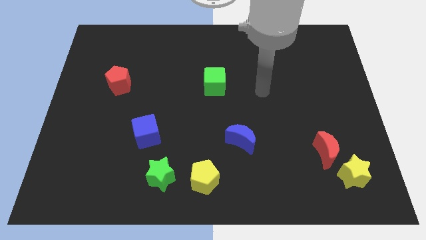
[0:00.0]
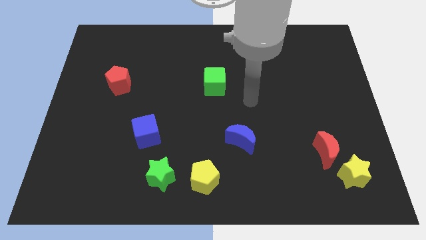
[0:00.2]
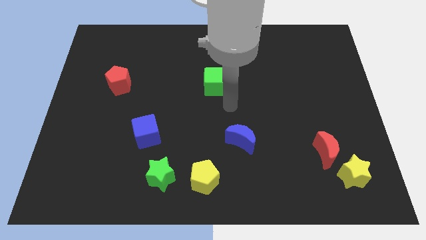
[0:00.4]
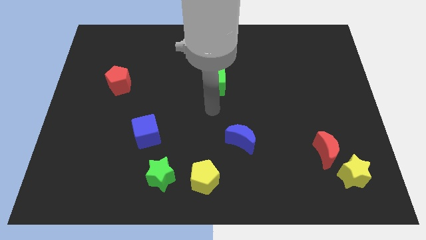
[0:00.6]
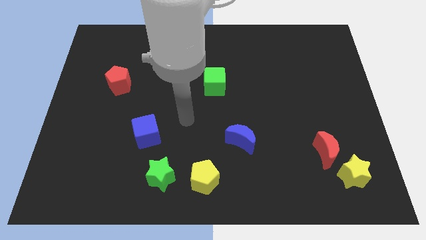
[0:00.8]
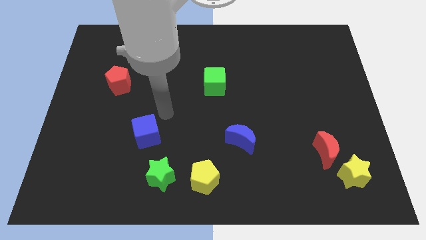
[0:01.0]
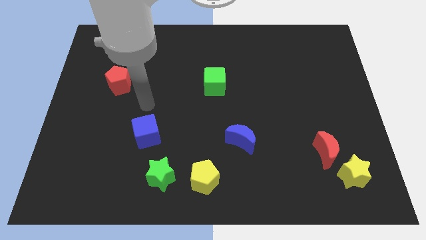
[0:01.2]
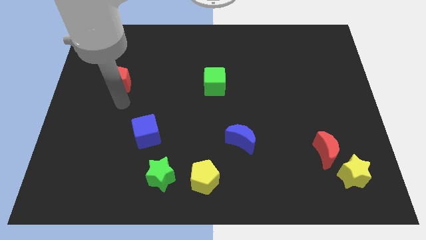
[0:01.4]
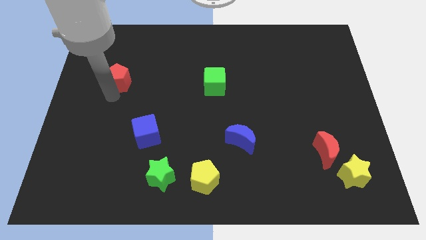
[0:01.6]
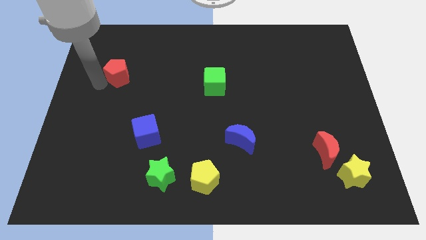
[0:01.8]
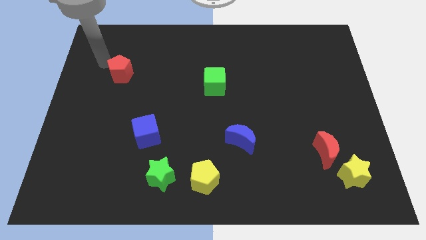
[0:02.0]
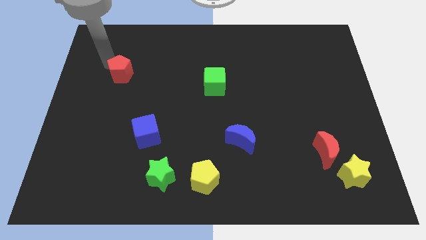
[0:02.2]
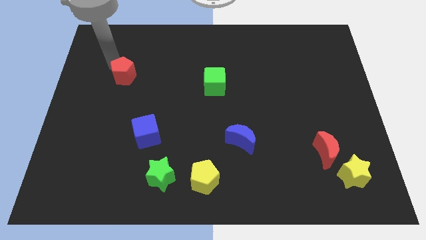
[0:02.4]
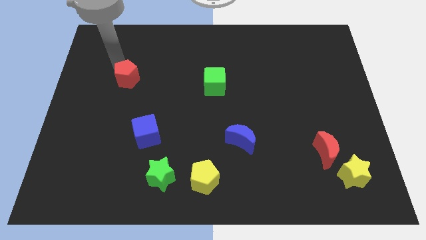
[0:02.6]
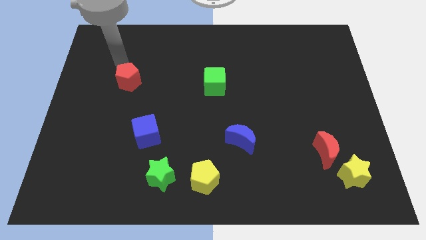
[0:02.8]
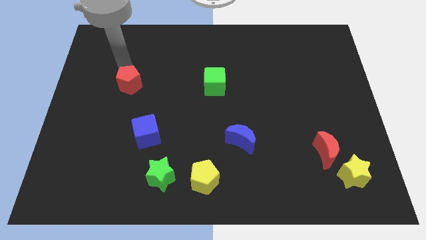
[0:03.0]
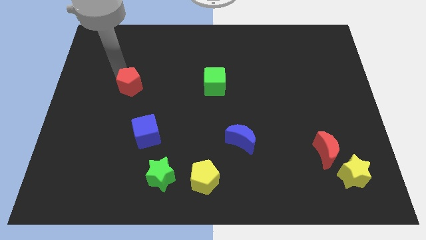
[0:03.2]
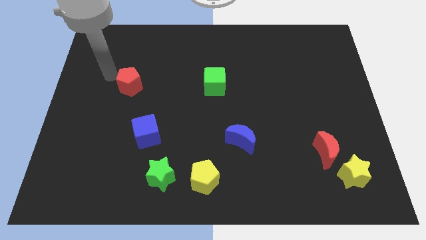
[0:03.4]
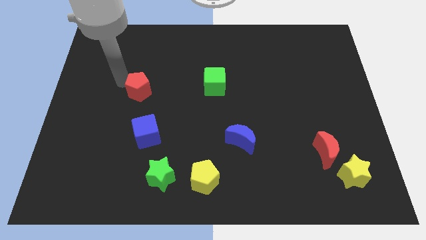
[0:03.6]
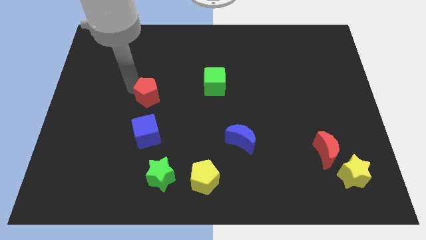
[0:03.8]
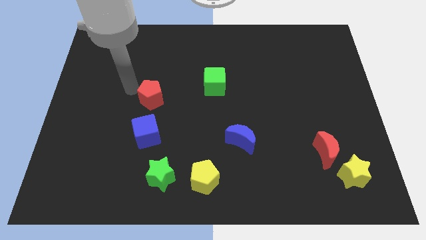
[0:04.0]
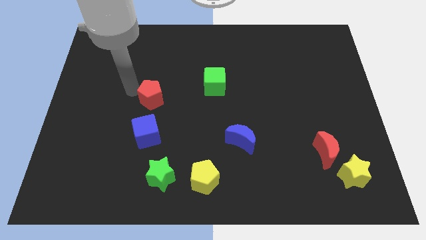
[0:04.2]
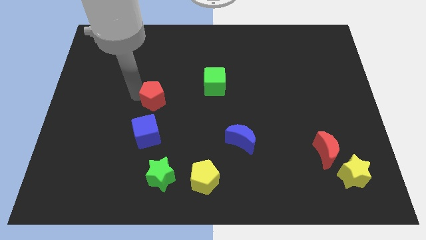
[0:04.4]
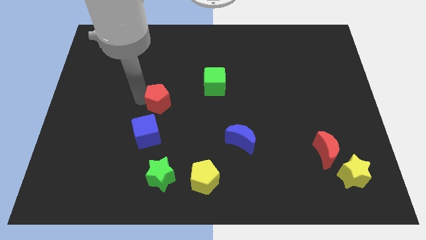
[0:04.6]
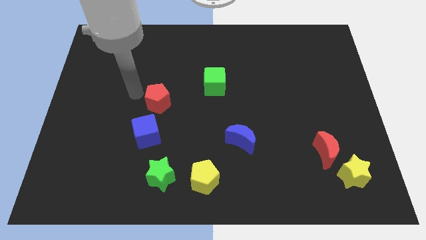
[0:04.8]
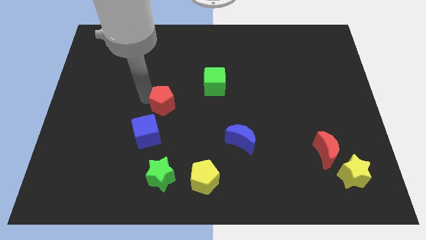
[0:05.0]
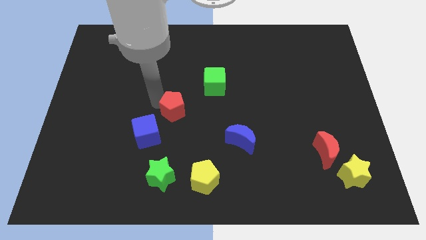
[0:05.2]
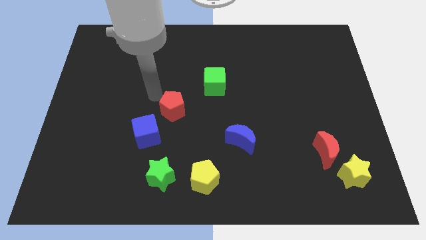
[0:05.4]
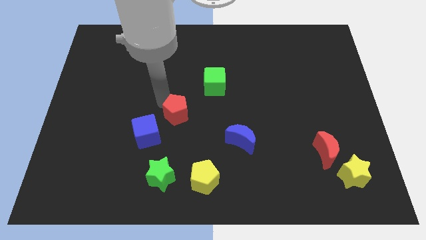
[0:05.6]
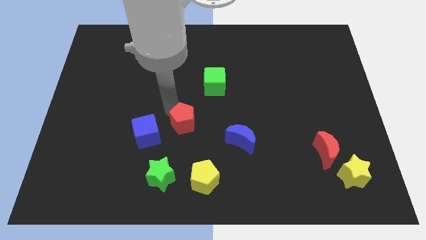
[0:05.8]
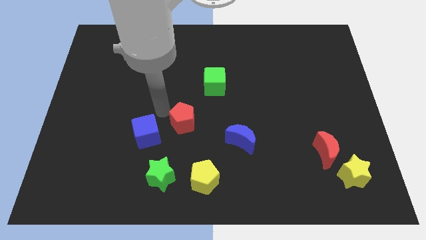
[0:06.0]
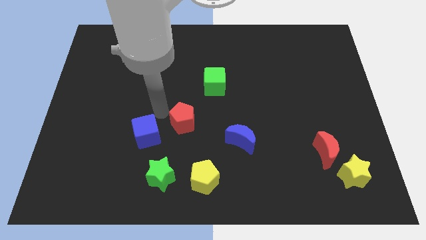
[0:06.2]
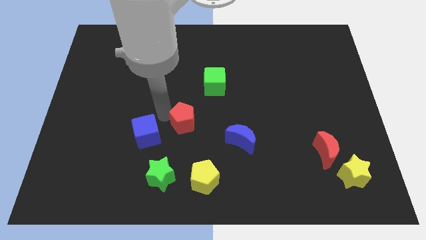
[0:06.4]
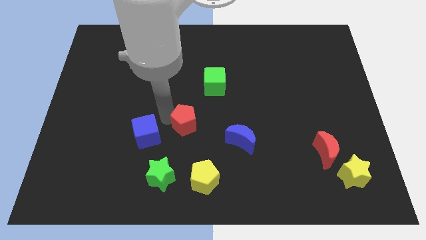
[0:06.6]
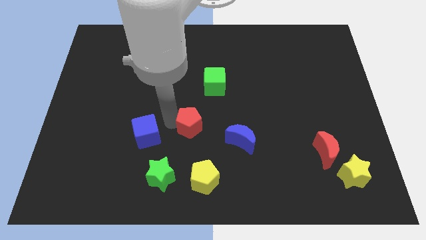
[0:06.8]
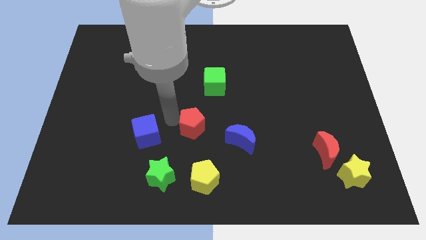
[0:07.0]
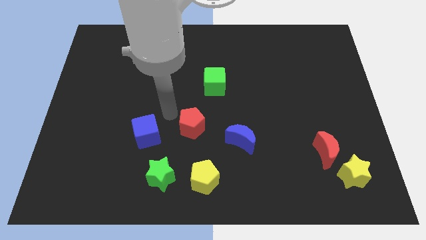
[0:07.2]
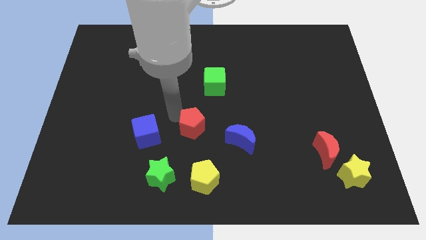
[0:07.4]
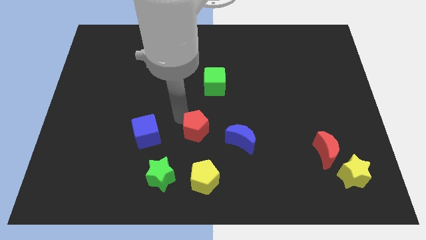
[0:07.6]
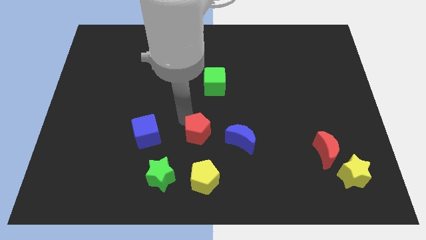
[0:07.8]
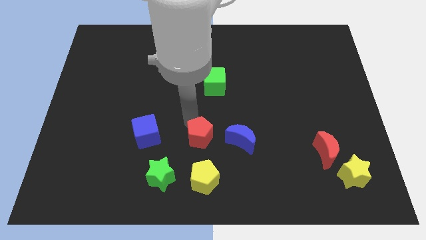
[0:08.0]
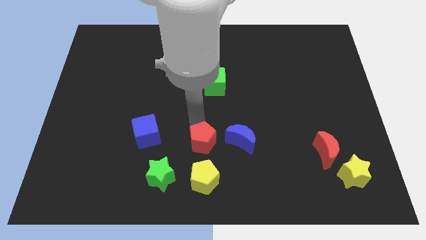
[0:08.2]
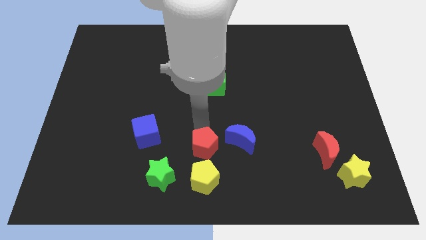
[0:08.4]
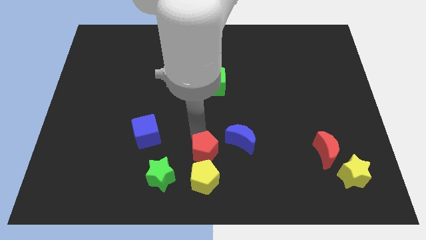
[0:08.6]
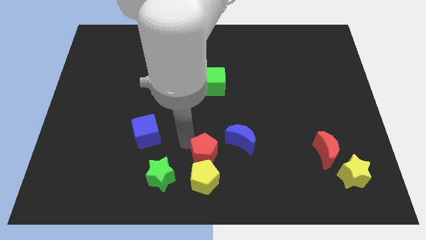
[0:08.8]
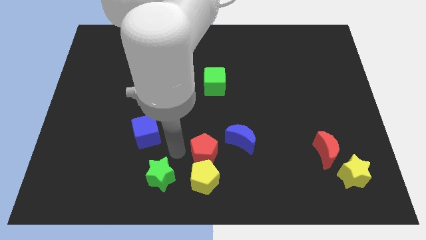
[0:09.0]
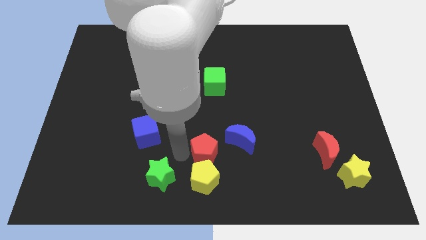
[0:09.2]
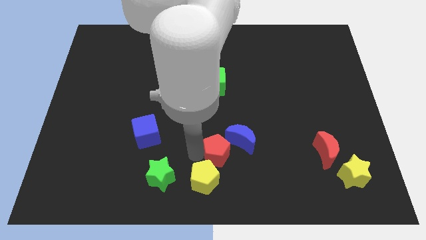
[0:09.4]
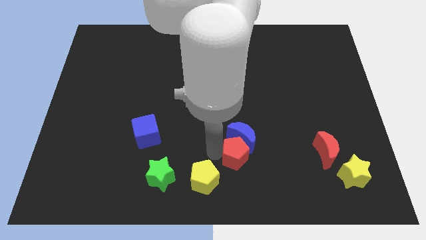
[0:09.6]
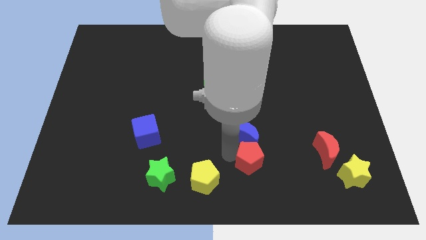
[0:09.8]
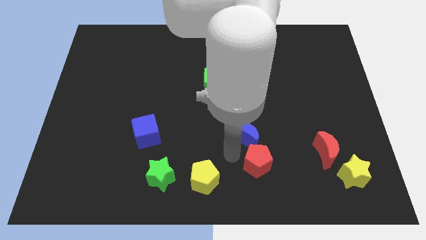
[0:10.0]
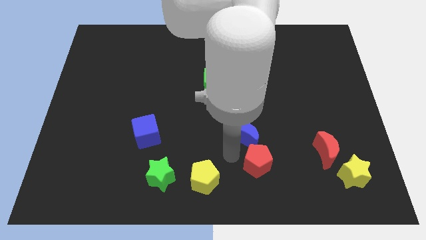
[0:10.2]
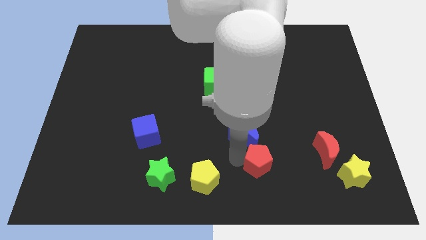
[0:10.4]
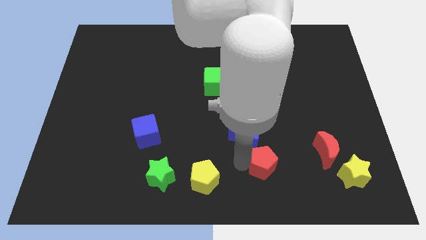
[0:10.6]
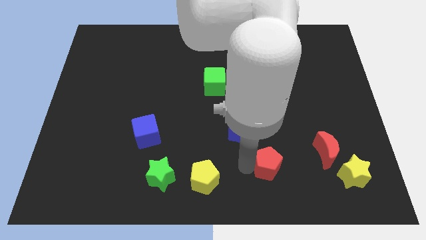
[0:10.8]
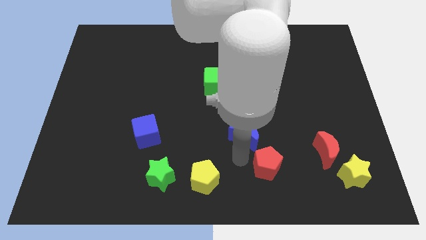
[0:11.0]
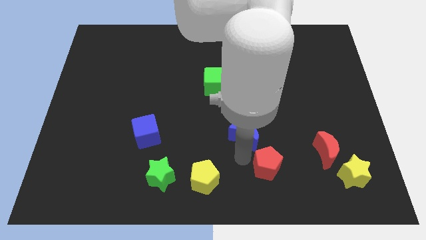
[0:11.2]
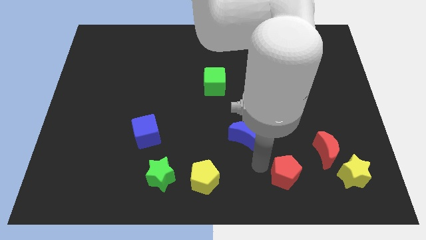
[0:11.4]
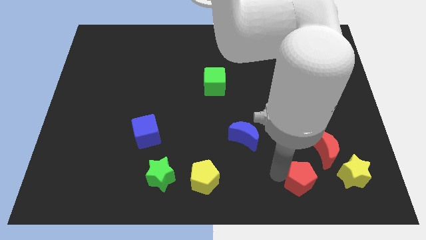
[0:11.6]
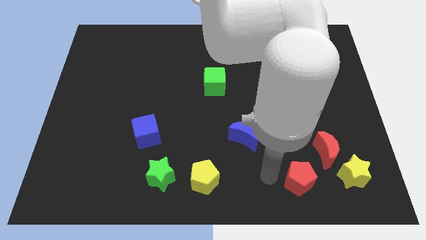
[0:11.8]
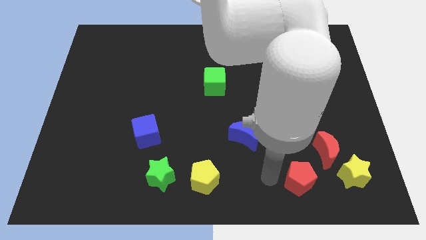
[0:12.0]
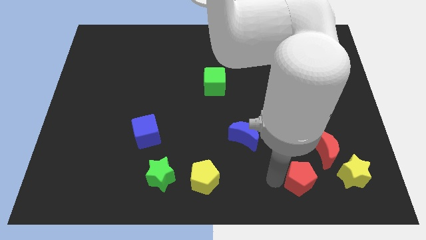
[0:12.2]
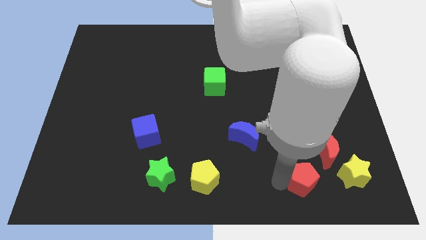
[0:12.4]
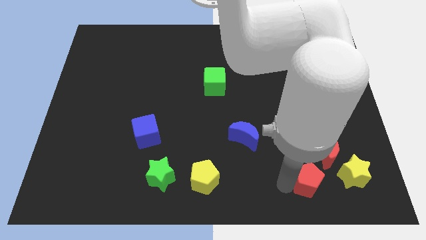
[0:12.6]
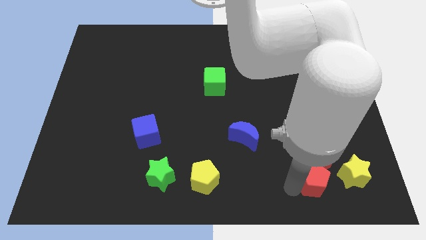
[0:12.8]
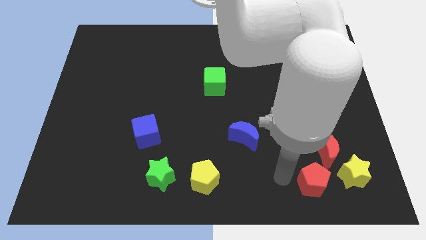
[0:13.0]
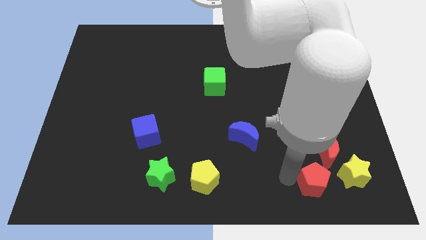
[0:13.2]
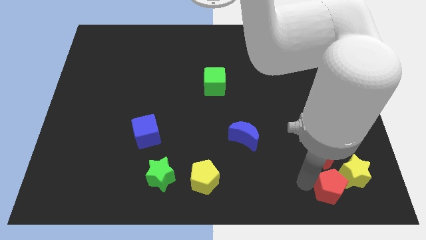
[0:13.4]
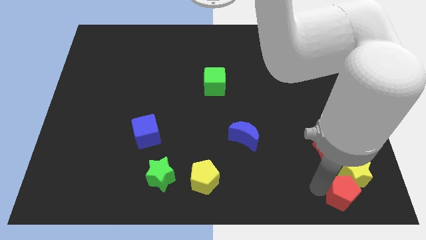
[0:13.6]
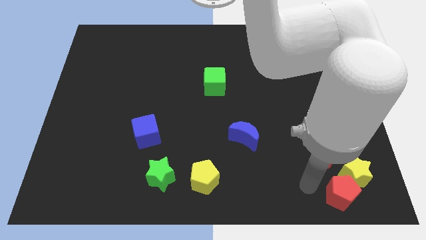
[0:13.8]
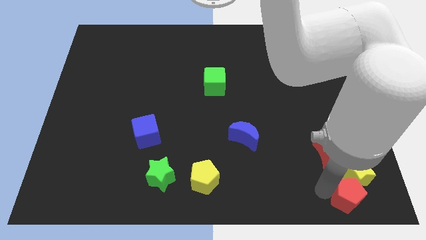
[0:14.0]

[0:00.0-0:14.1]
slide the red pentagon to the lower right corner
